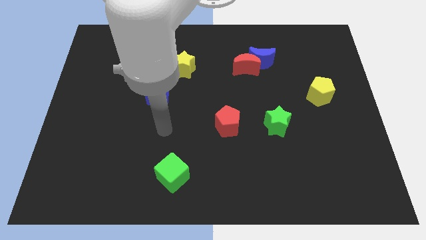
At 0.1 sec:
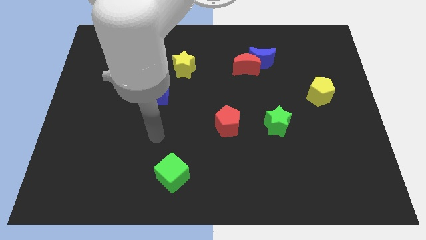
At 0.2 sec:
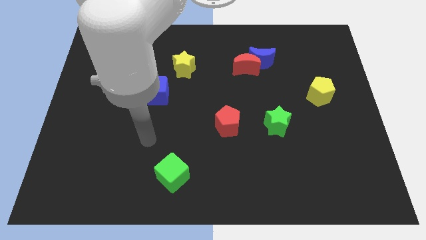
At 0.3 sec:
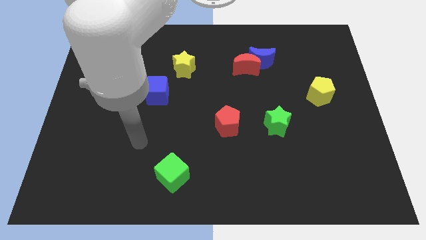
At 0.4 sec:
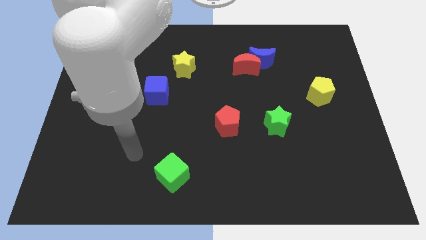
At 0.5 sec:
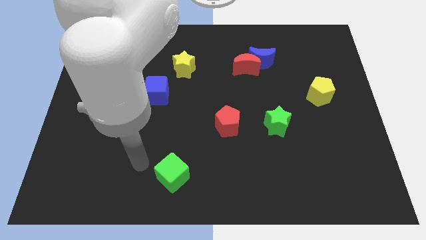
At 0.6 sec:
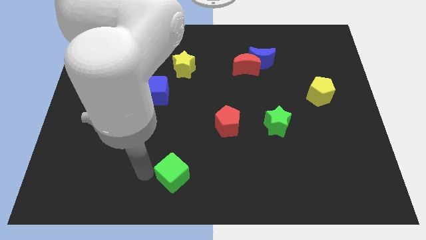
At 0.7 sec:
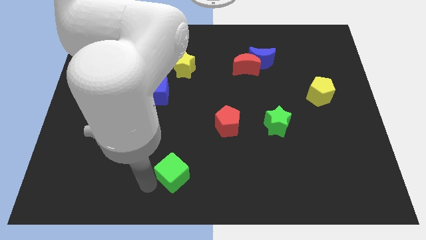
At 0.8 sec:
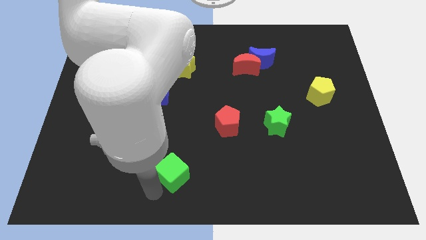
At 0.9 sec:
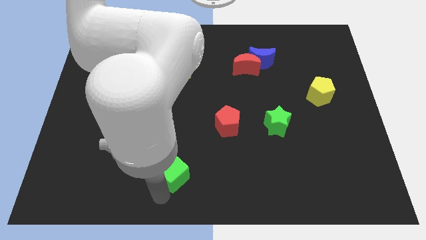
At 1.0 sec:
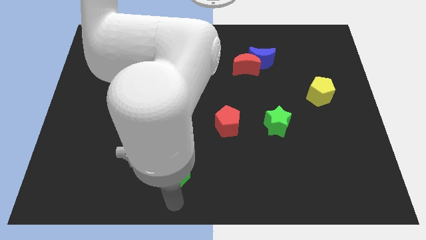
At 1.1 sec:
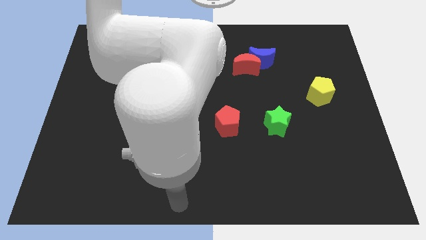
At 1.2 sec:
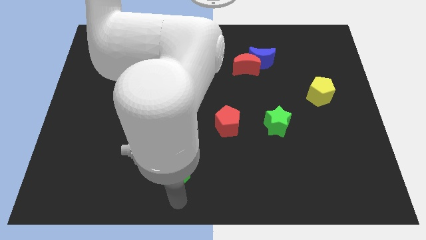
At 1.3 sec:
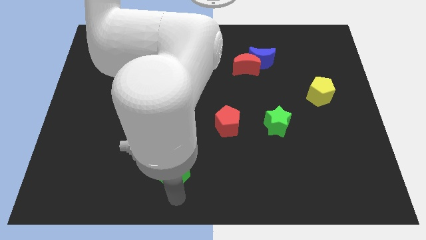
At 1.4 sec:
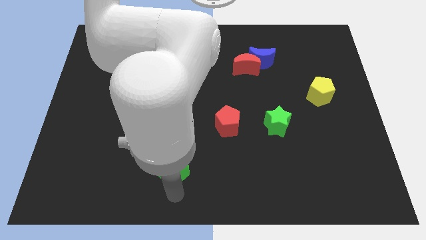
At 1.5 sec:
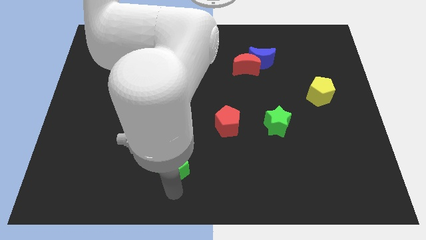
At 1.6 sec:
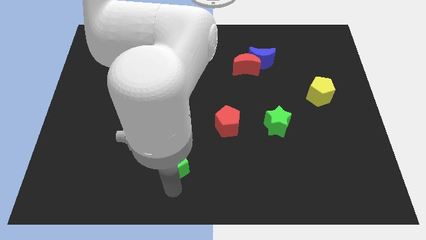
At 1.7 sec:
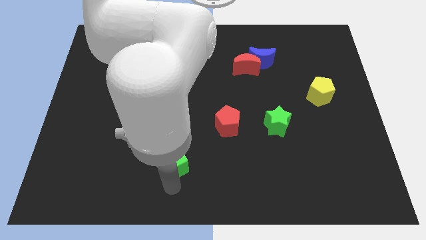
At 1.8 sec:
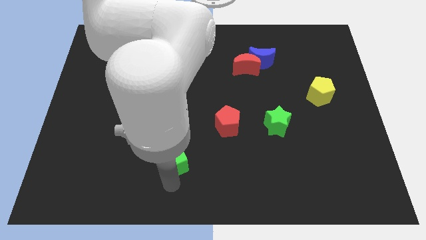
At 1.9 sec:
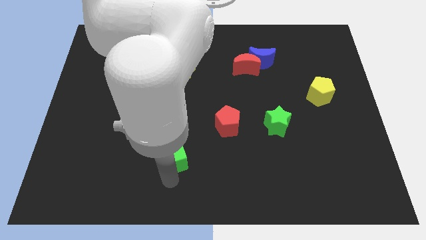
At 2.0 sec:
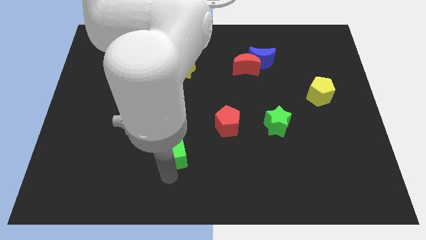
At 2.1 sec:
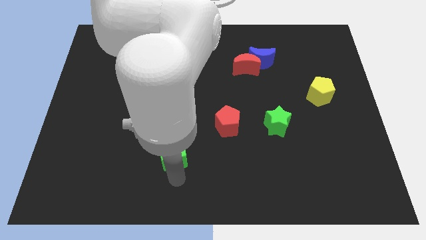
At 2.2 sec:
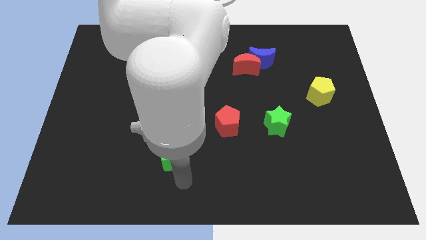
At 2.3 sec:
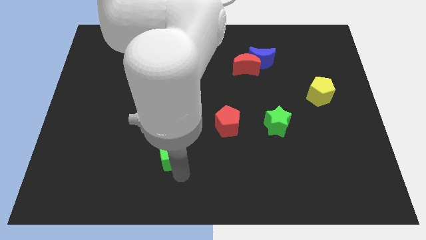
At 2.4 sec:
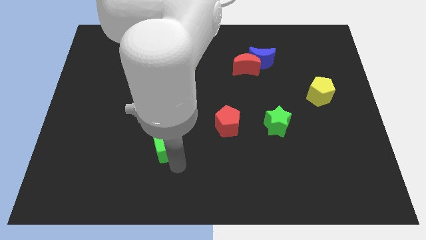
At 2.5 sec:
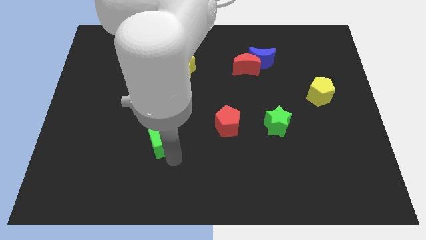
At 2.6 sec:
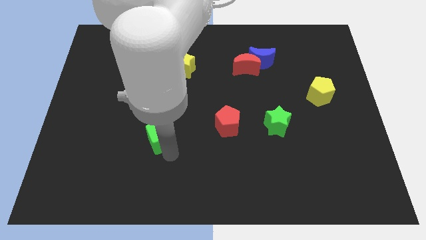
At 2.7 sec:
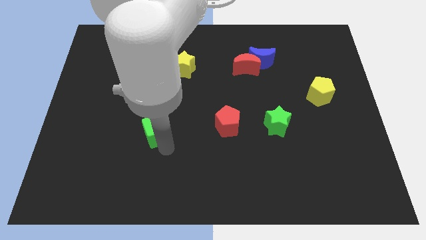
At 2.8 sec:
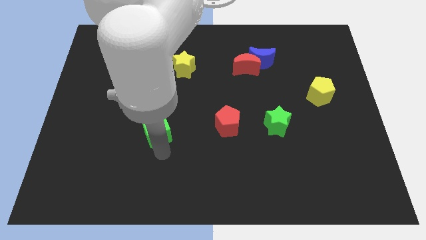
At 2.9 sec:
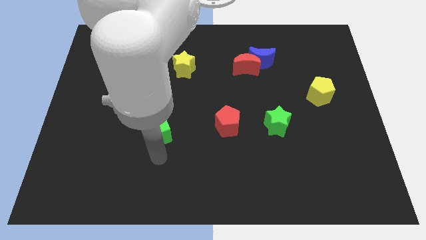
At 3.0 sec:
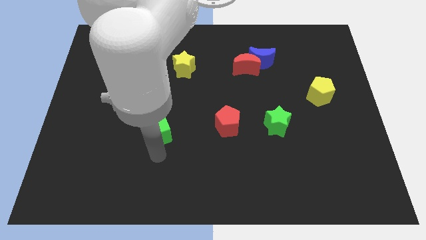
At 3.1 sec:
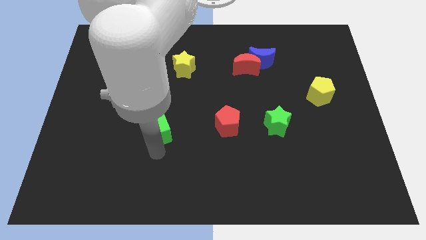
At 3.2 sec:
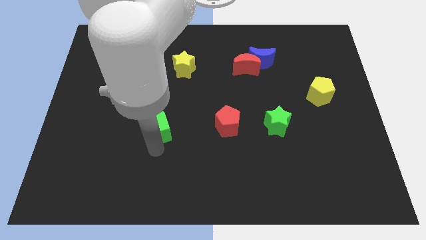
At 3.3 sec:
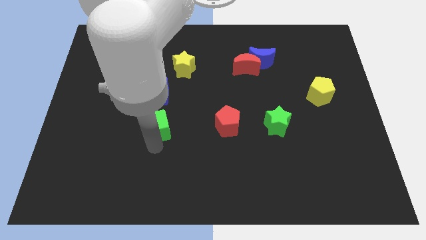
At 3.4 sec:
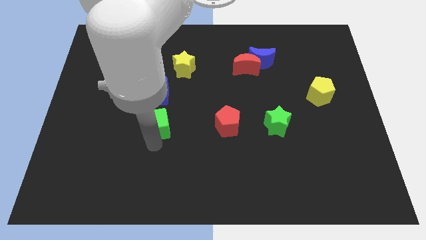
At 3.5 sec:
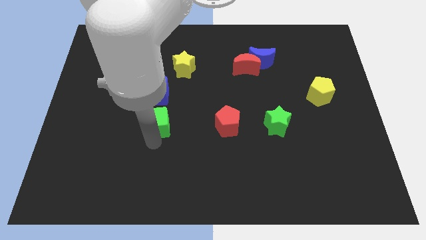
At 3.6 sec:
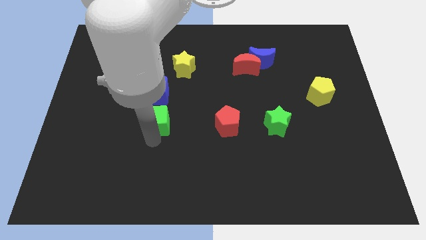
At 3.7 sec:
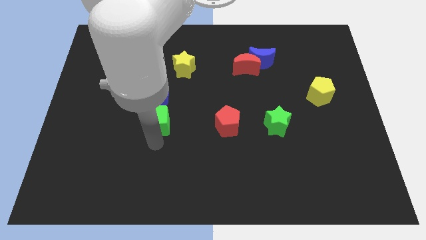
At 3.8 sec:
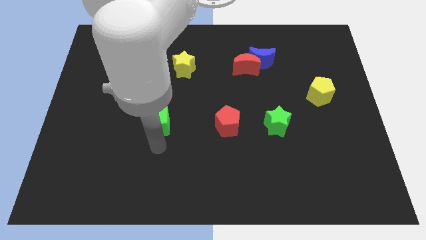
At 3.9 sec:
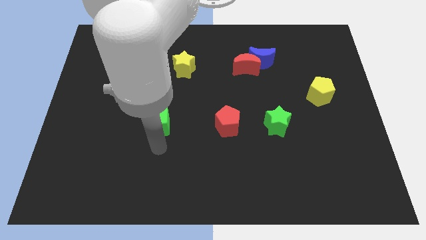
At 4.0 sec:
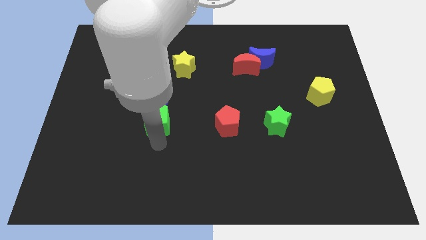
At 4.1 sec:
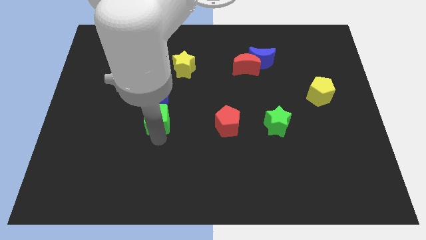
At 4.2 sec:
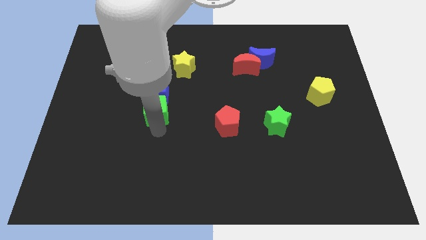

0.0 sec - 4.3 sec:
put the green cube next to the blue cube

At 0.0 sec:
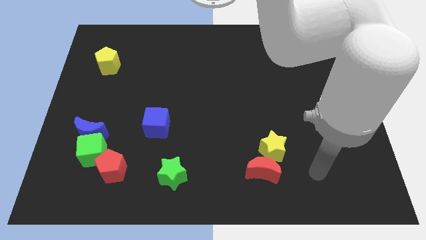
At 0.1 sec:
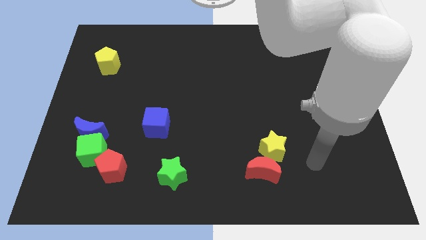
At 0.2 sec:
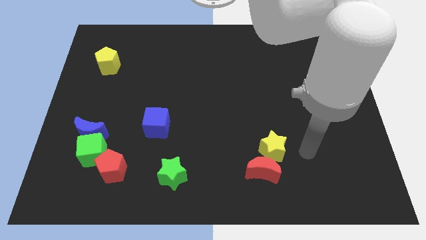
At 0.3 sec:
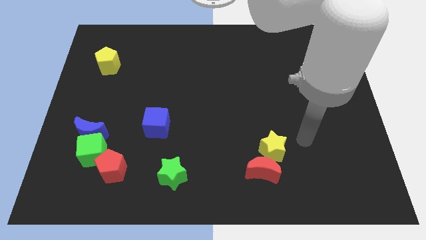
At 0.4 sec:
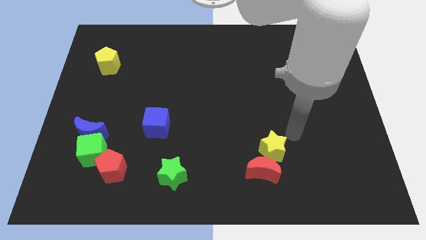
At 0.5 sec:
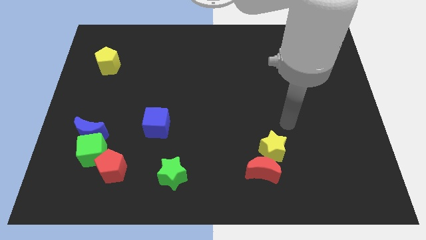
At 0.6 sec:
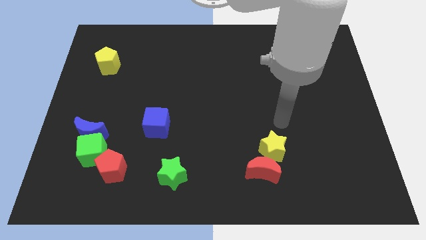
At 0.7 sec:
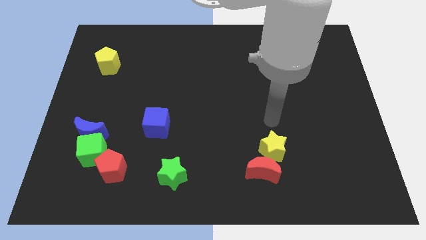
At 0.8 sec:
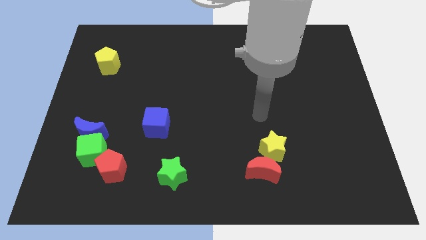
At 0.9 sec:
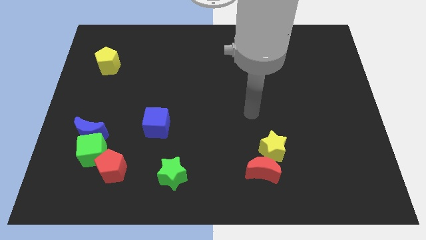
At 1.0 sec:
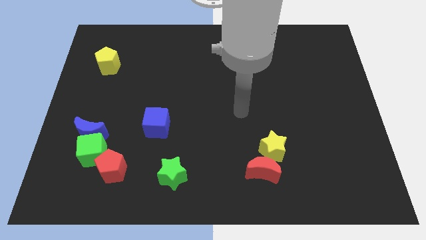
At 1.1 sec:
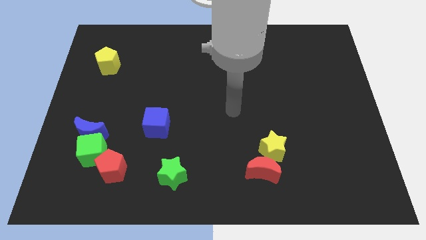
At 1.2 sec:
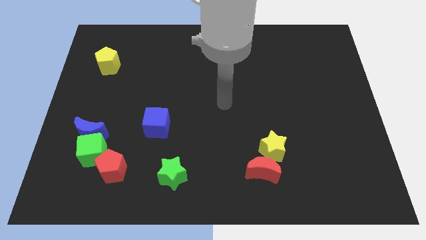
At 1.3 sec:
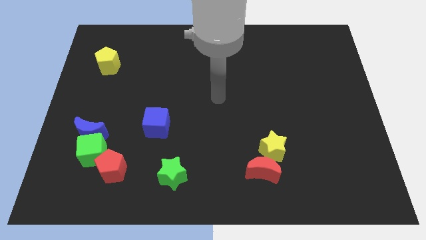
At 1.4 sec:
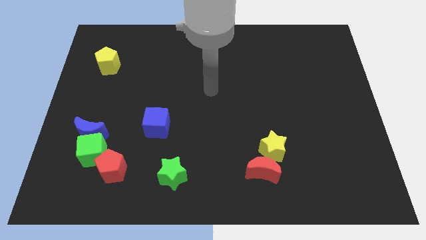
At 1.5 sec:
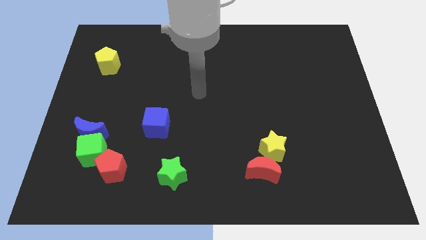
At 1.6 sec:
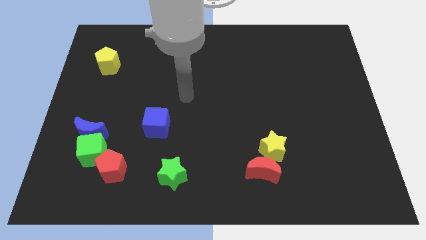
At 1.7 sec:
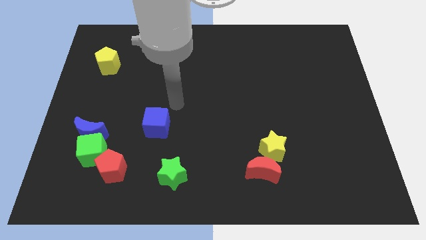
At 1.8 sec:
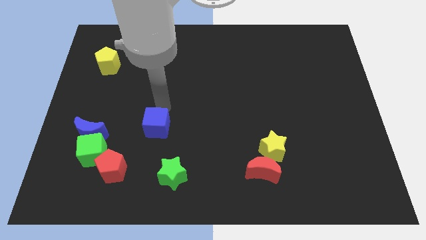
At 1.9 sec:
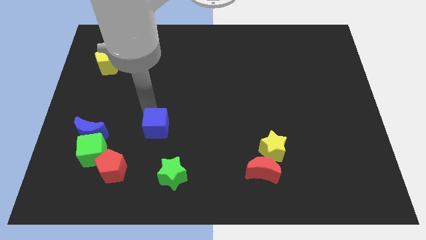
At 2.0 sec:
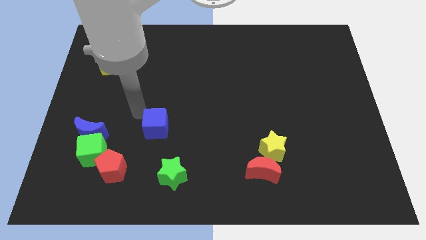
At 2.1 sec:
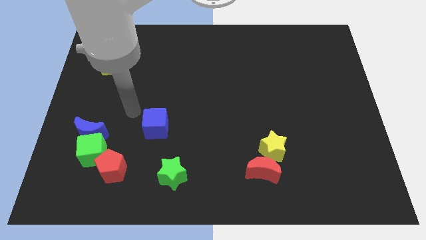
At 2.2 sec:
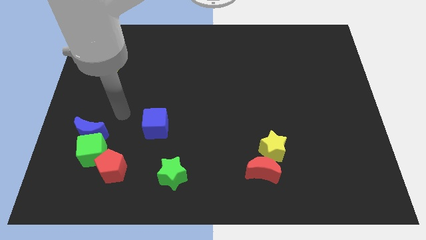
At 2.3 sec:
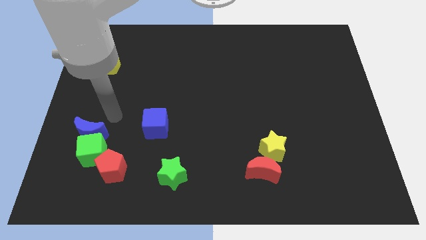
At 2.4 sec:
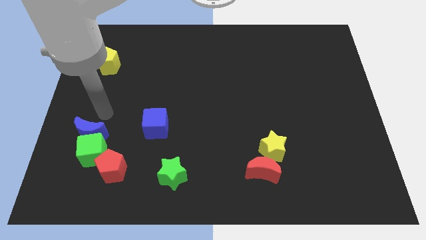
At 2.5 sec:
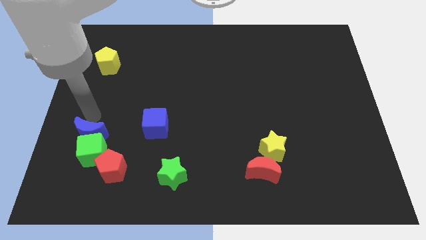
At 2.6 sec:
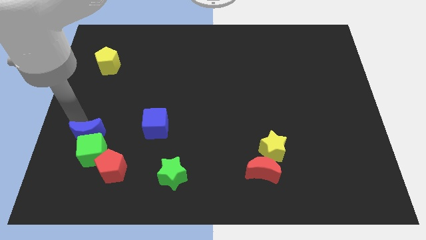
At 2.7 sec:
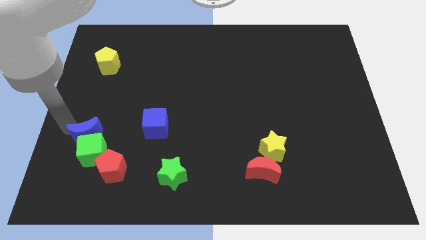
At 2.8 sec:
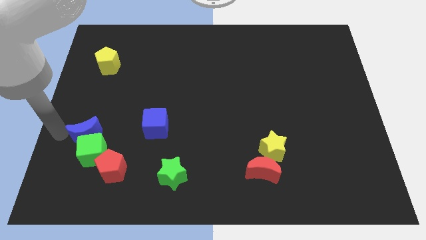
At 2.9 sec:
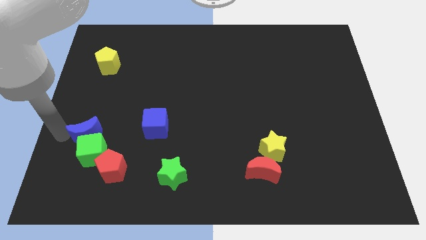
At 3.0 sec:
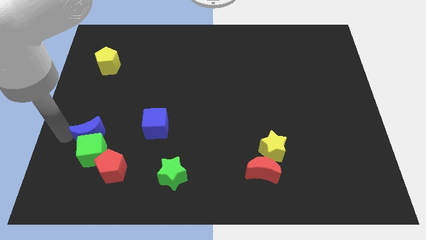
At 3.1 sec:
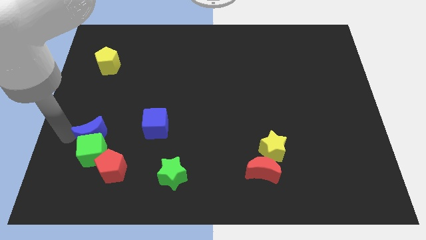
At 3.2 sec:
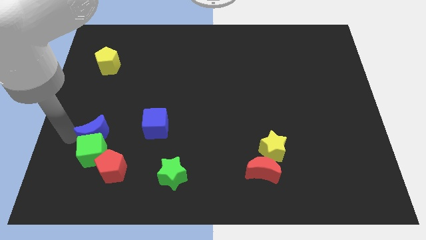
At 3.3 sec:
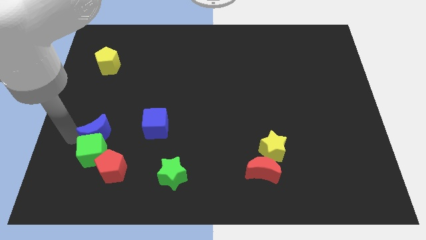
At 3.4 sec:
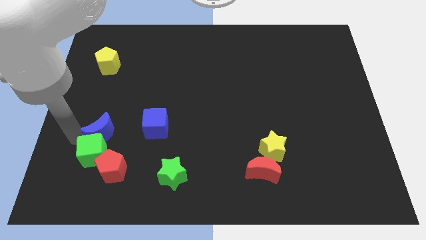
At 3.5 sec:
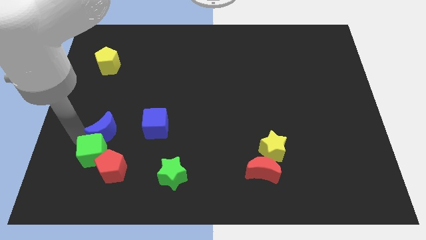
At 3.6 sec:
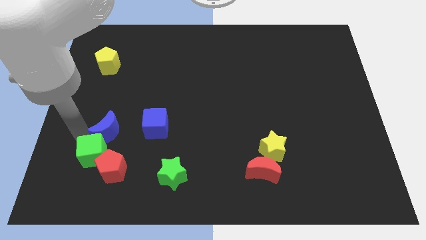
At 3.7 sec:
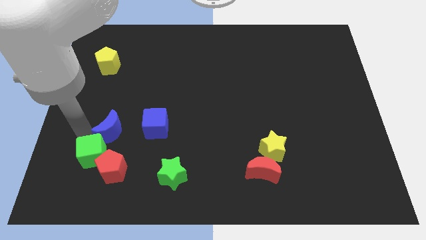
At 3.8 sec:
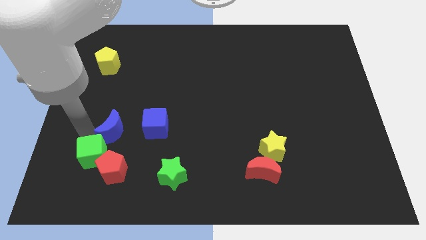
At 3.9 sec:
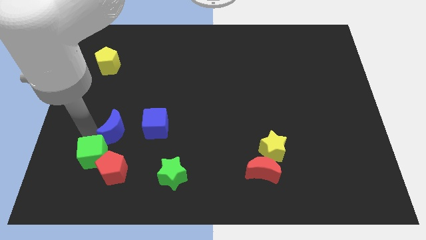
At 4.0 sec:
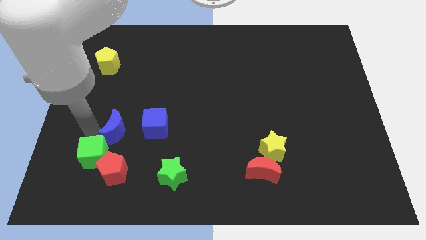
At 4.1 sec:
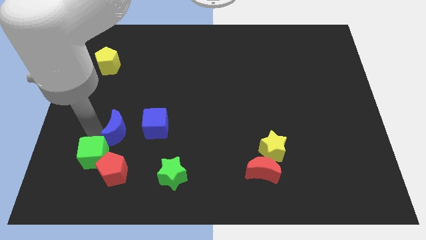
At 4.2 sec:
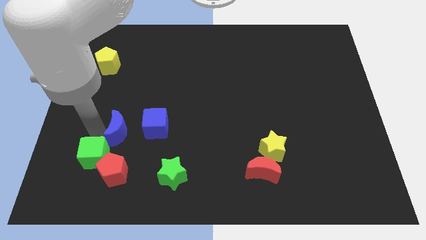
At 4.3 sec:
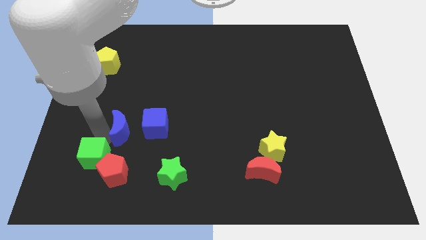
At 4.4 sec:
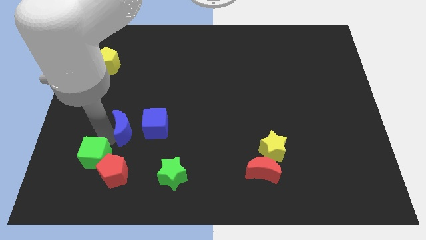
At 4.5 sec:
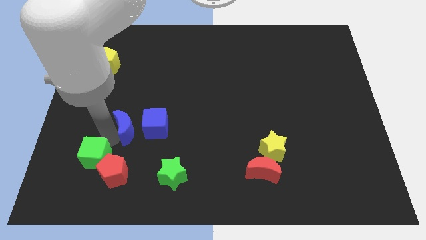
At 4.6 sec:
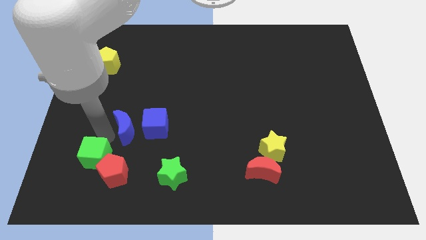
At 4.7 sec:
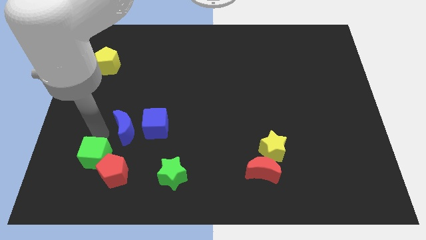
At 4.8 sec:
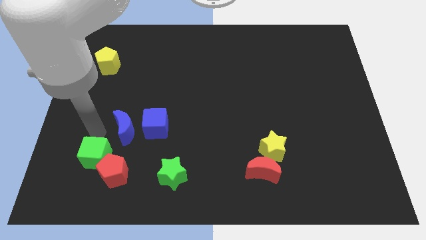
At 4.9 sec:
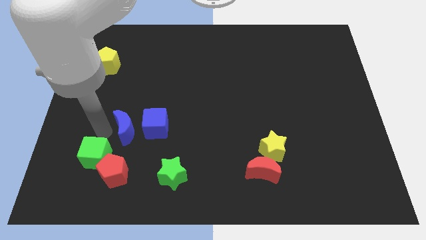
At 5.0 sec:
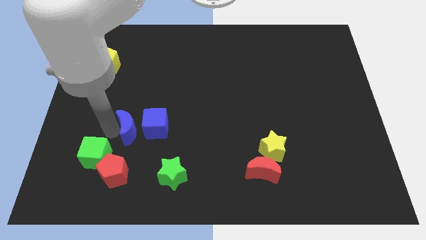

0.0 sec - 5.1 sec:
slide the blue moon to the blue cube
